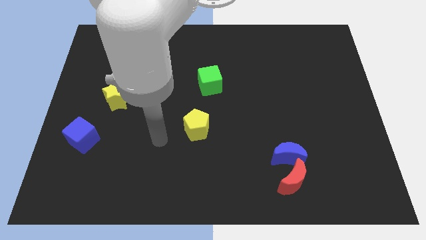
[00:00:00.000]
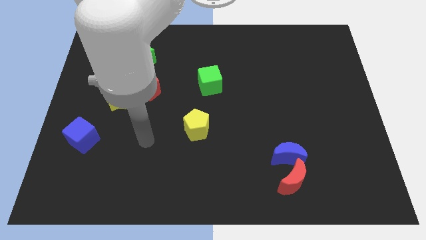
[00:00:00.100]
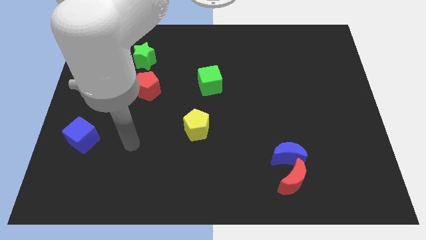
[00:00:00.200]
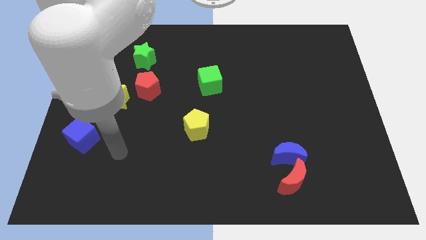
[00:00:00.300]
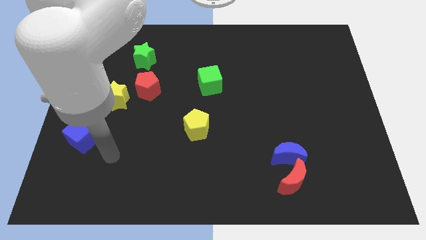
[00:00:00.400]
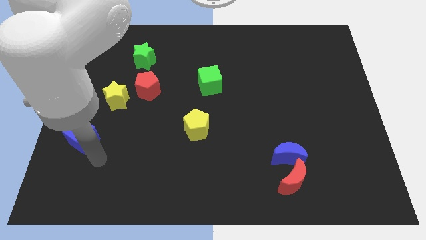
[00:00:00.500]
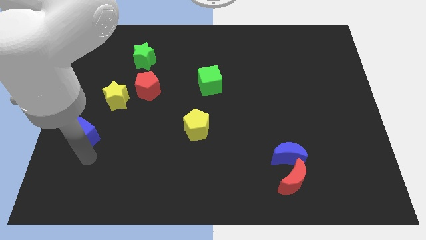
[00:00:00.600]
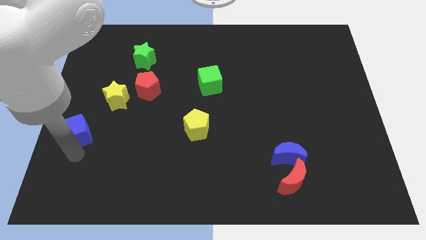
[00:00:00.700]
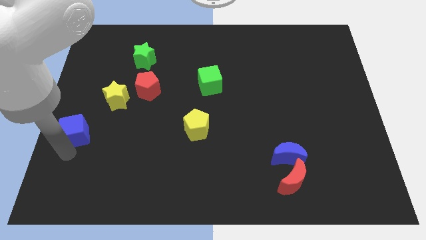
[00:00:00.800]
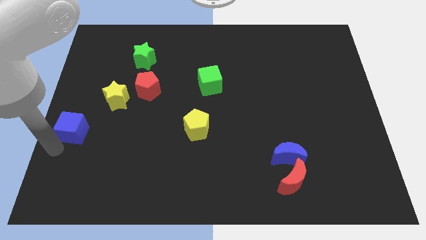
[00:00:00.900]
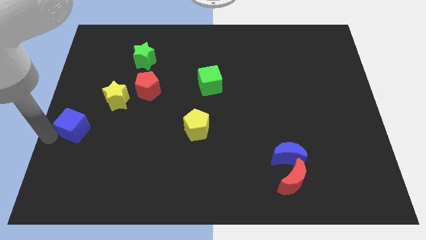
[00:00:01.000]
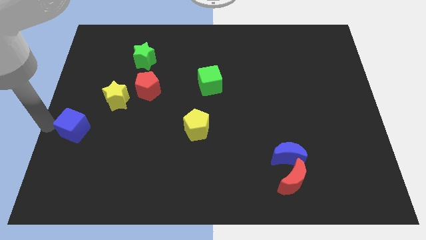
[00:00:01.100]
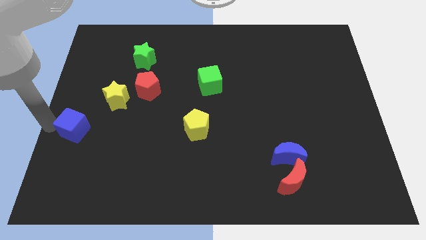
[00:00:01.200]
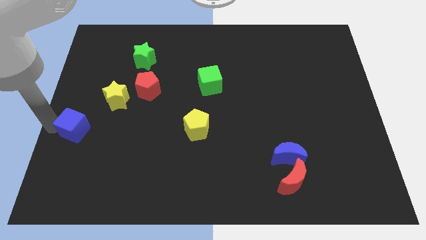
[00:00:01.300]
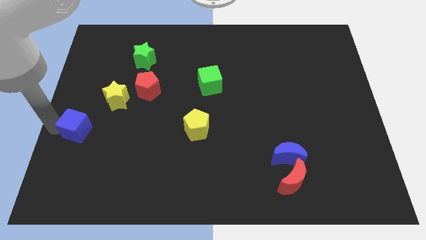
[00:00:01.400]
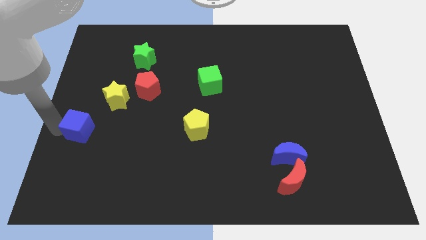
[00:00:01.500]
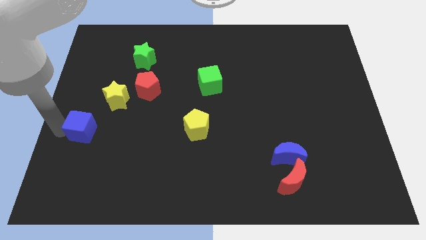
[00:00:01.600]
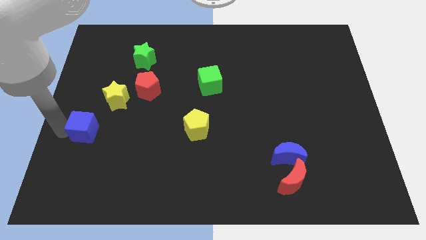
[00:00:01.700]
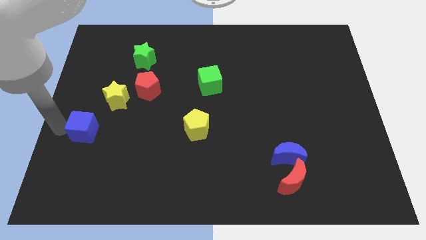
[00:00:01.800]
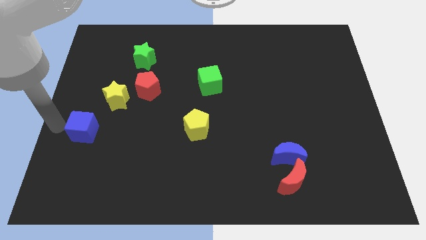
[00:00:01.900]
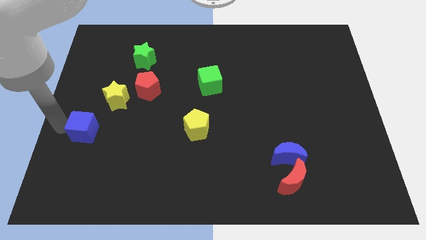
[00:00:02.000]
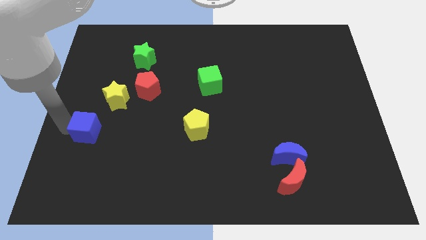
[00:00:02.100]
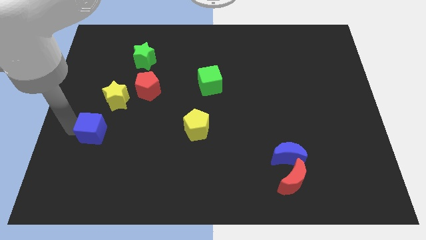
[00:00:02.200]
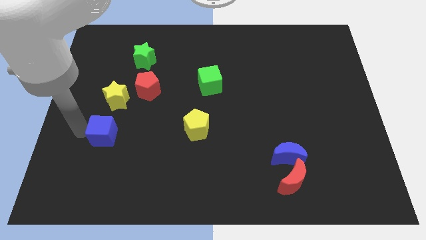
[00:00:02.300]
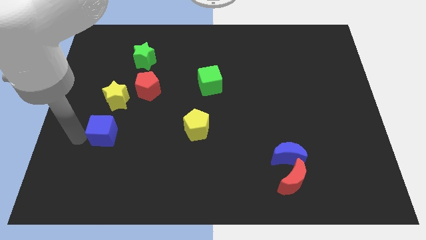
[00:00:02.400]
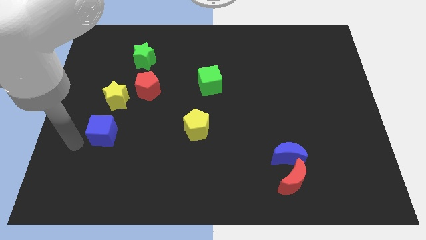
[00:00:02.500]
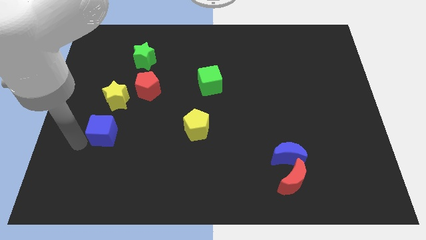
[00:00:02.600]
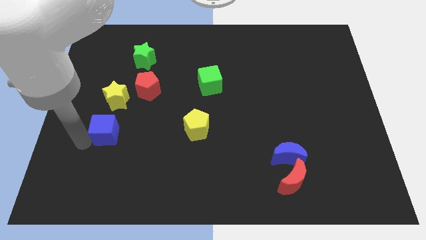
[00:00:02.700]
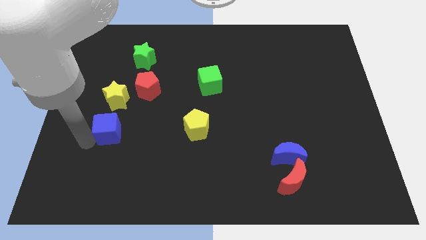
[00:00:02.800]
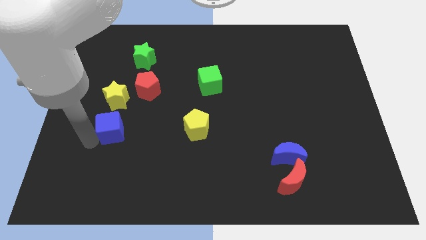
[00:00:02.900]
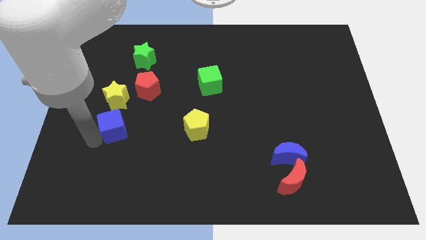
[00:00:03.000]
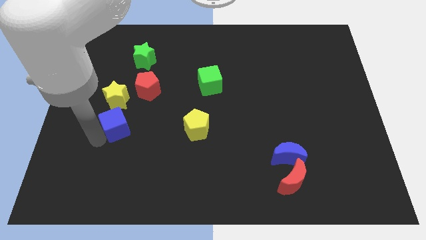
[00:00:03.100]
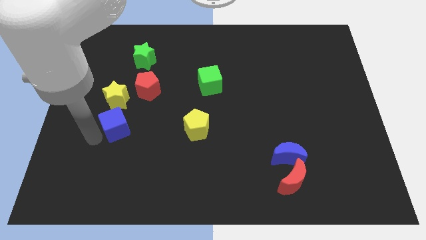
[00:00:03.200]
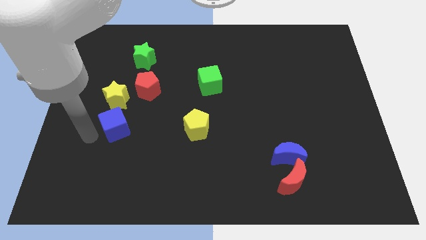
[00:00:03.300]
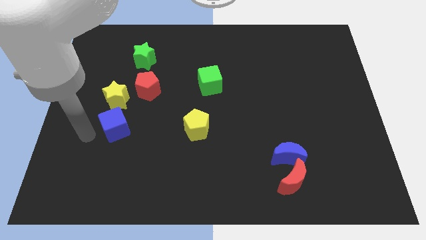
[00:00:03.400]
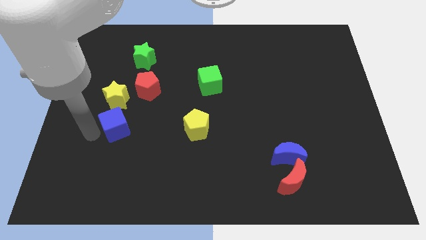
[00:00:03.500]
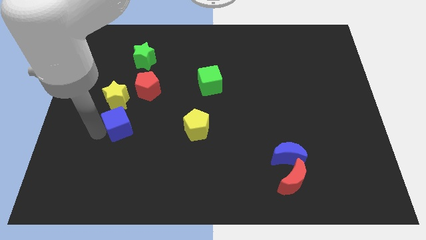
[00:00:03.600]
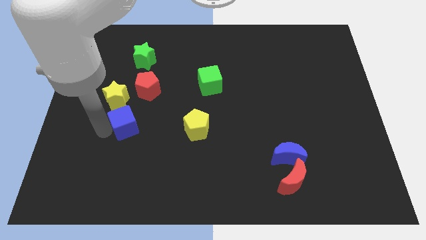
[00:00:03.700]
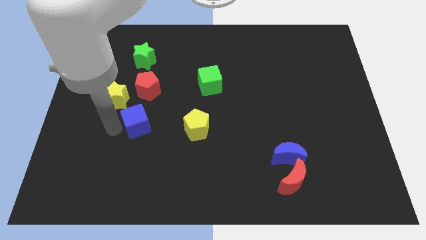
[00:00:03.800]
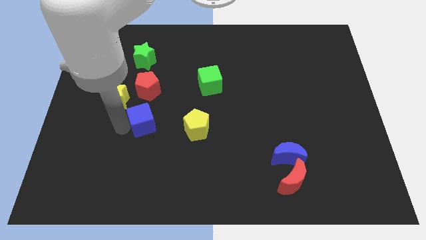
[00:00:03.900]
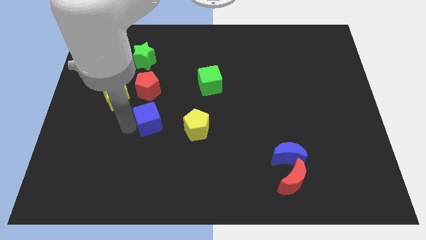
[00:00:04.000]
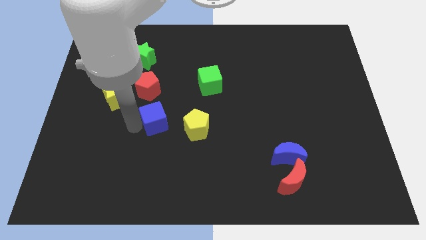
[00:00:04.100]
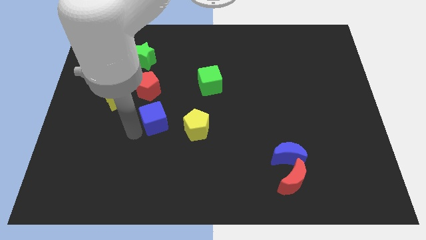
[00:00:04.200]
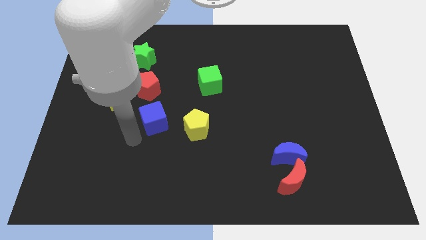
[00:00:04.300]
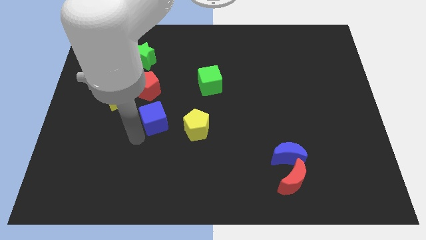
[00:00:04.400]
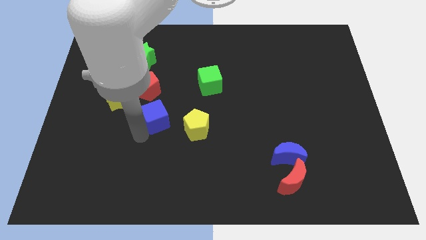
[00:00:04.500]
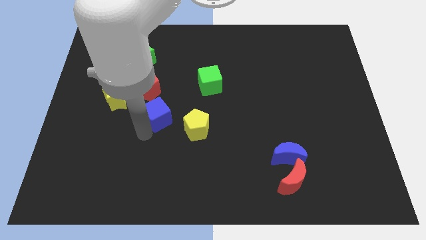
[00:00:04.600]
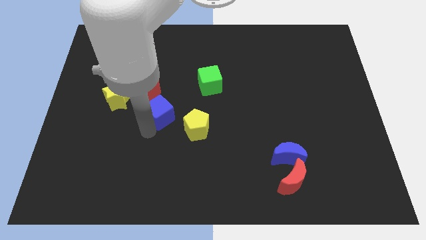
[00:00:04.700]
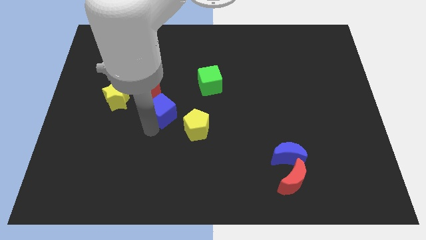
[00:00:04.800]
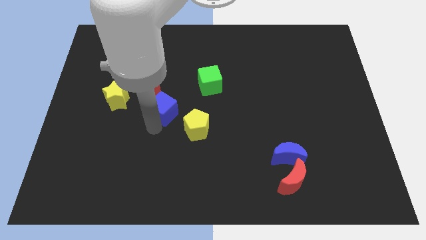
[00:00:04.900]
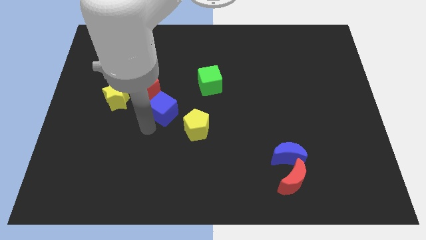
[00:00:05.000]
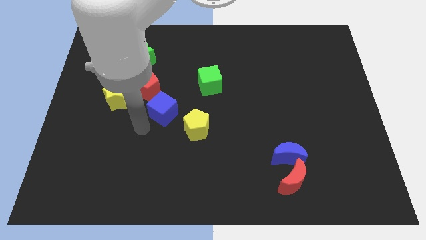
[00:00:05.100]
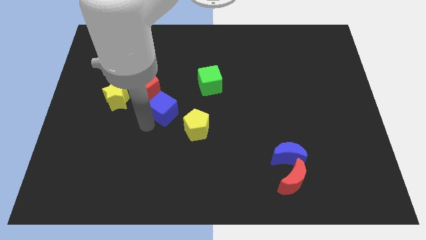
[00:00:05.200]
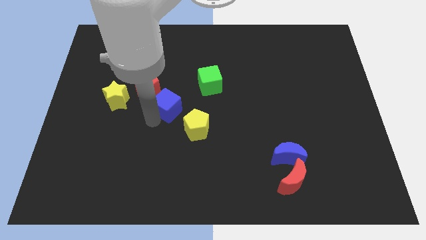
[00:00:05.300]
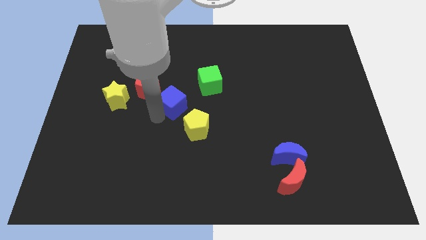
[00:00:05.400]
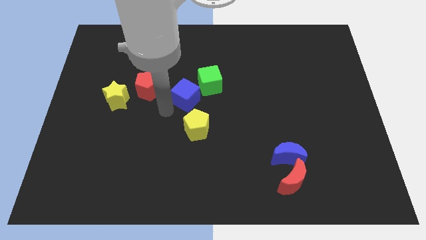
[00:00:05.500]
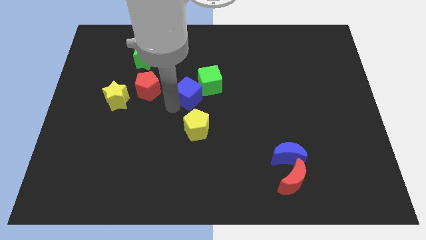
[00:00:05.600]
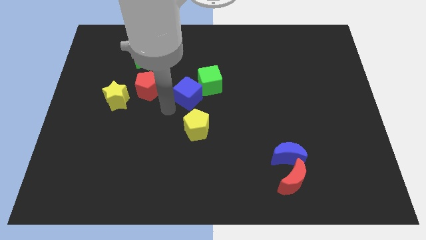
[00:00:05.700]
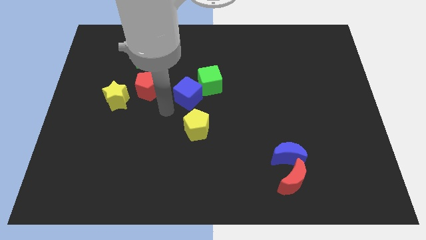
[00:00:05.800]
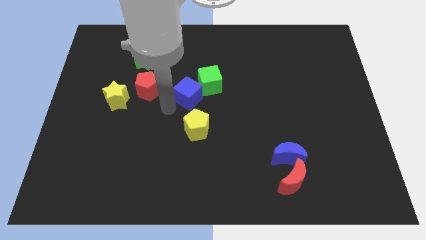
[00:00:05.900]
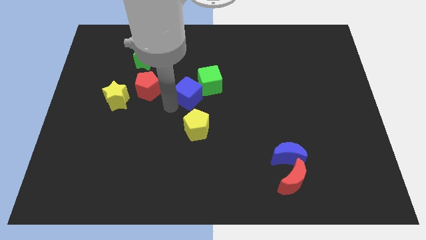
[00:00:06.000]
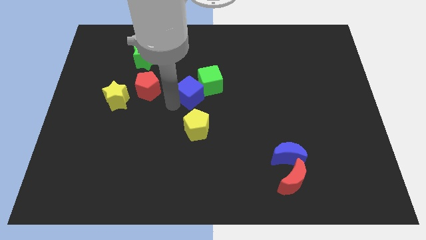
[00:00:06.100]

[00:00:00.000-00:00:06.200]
slide the blue cube next to the green cube

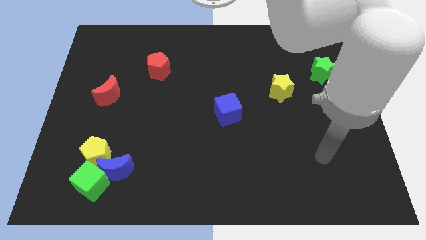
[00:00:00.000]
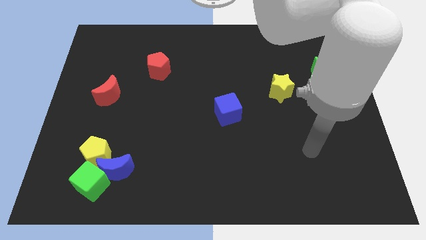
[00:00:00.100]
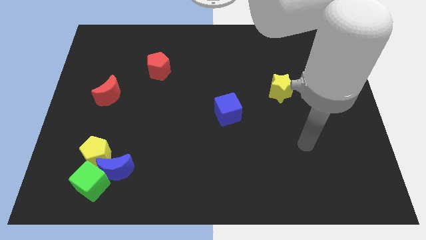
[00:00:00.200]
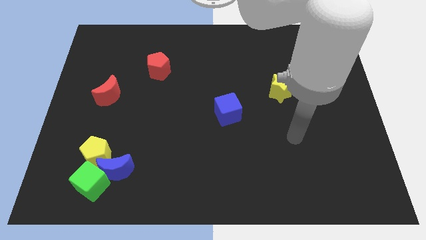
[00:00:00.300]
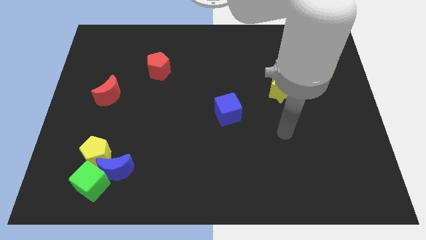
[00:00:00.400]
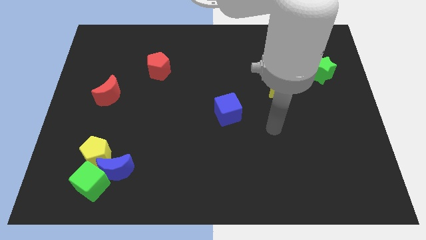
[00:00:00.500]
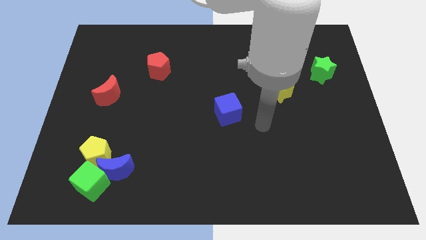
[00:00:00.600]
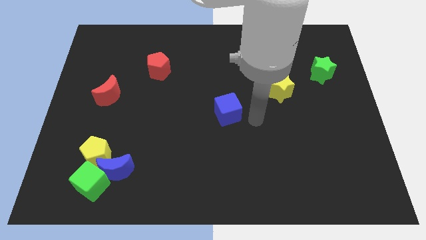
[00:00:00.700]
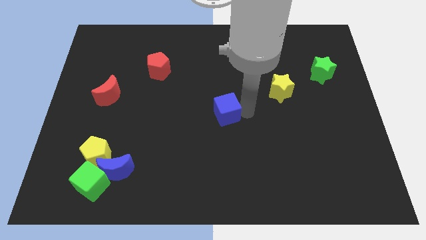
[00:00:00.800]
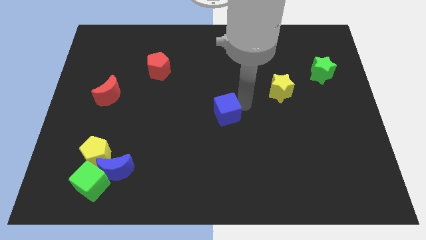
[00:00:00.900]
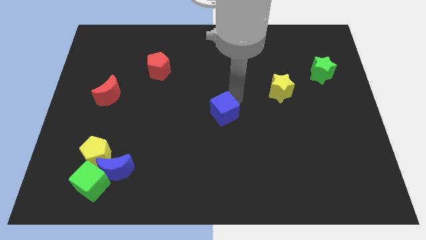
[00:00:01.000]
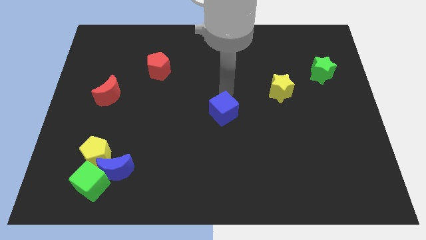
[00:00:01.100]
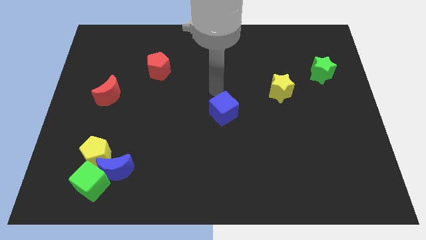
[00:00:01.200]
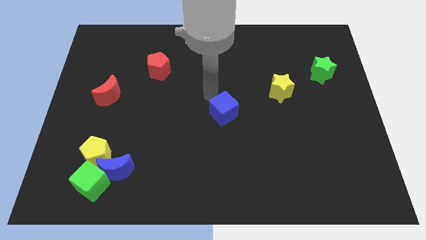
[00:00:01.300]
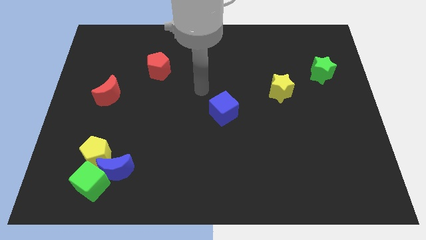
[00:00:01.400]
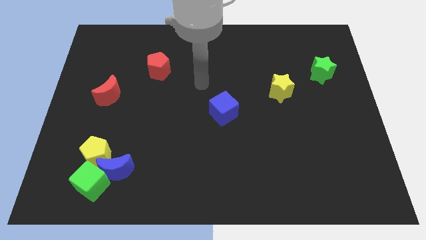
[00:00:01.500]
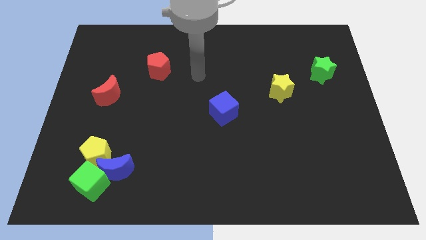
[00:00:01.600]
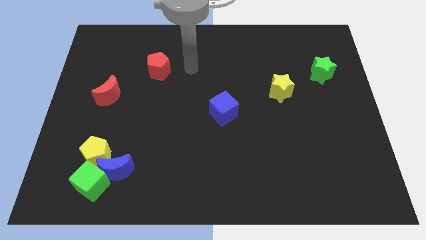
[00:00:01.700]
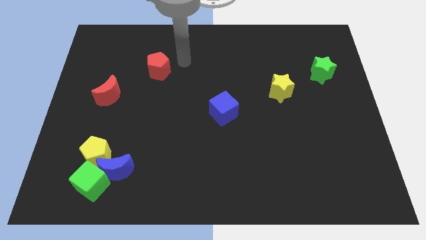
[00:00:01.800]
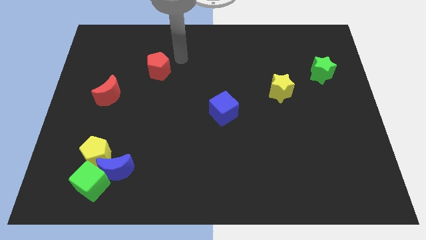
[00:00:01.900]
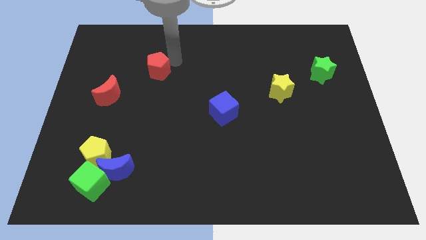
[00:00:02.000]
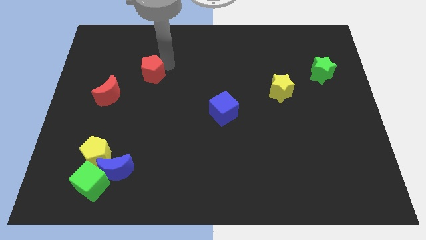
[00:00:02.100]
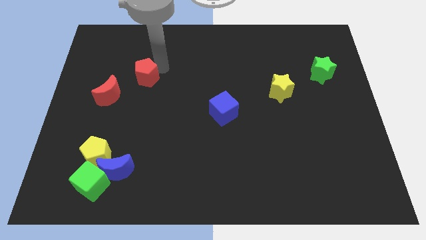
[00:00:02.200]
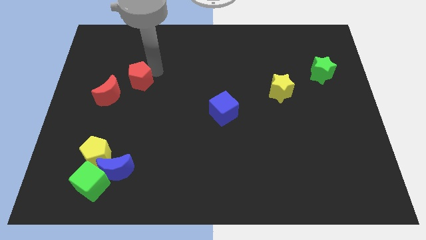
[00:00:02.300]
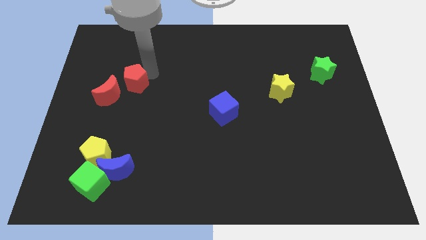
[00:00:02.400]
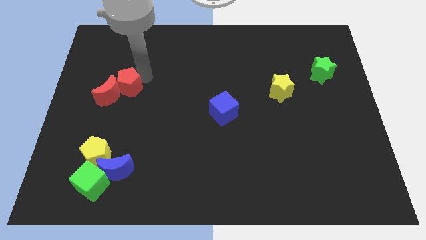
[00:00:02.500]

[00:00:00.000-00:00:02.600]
push the red pentagon close to the red moon
